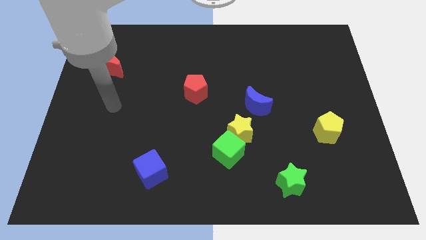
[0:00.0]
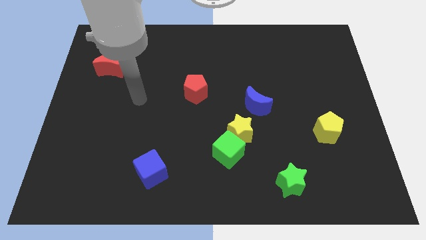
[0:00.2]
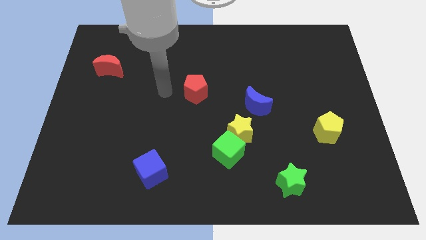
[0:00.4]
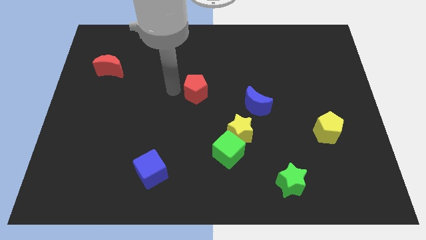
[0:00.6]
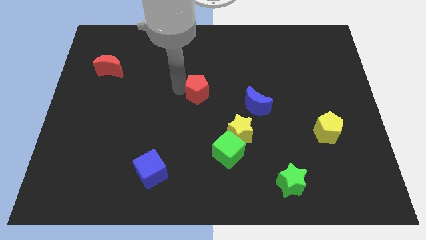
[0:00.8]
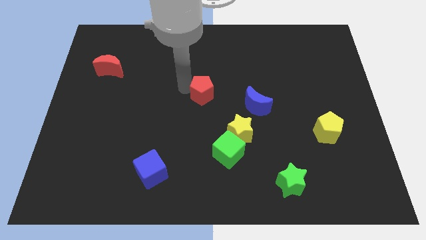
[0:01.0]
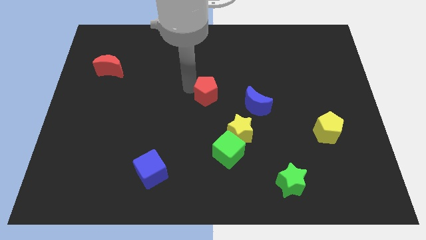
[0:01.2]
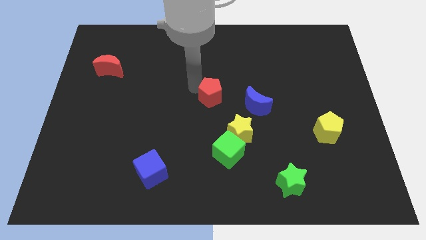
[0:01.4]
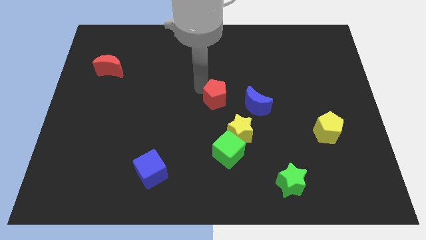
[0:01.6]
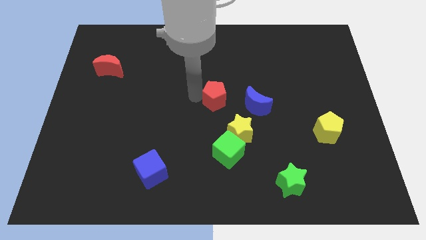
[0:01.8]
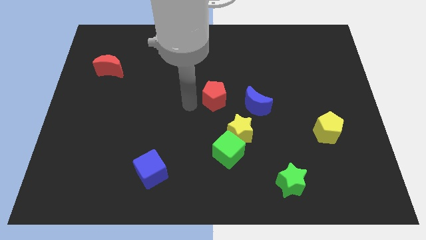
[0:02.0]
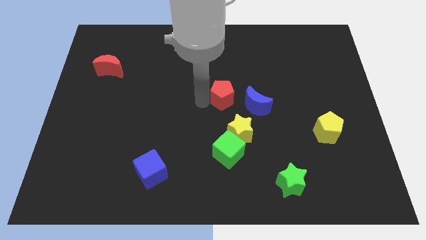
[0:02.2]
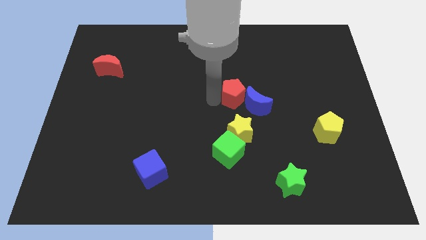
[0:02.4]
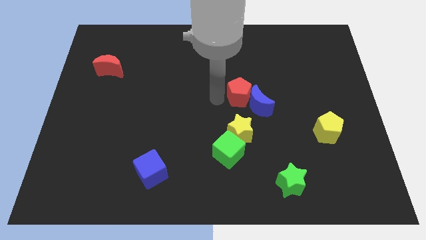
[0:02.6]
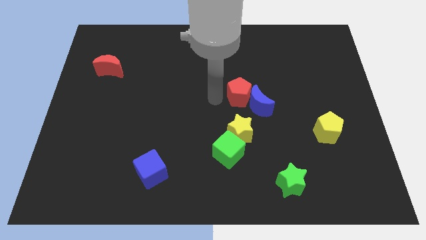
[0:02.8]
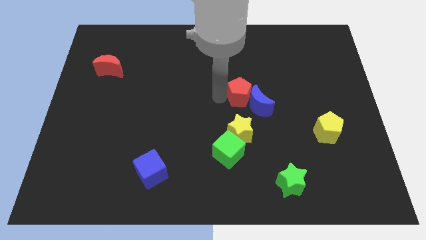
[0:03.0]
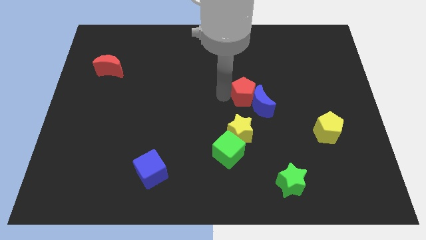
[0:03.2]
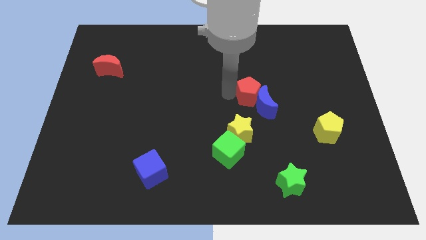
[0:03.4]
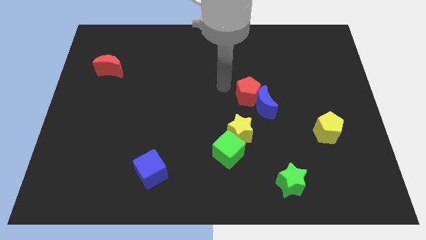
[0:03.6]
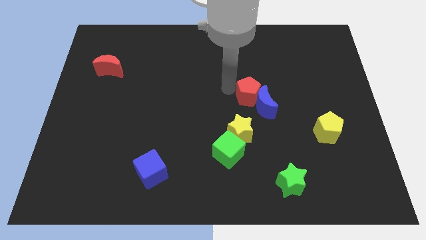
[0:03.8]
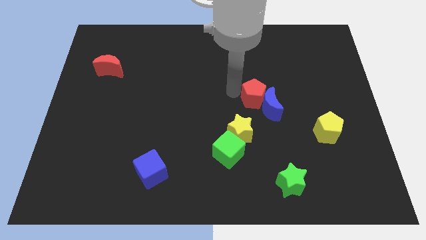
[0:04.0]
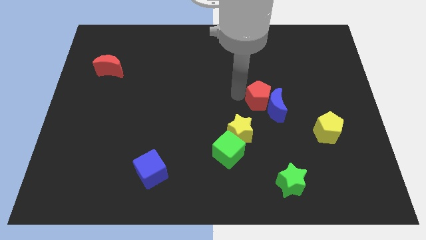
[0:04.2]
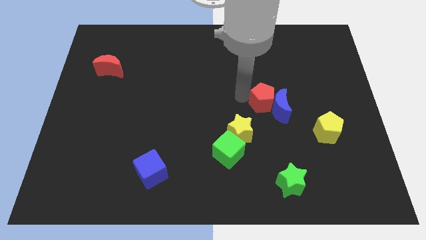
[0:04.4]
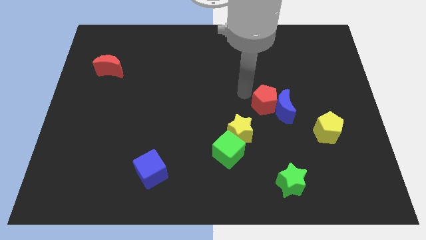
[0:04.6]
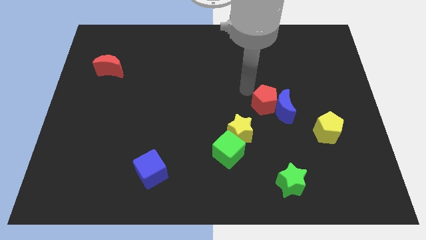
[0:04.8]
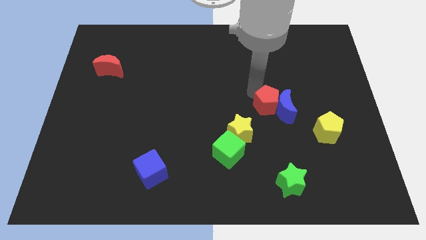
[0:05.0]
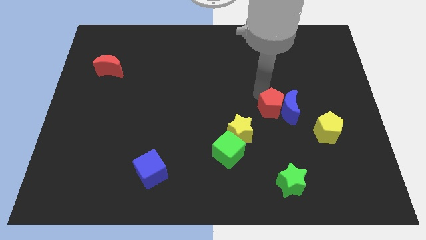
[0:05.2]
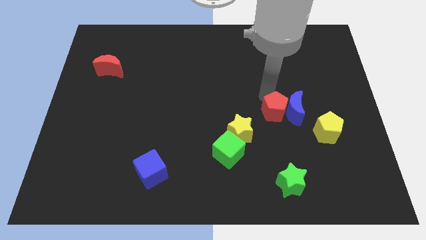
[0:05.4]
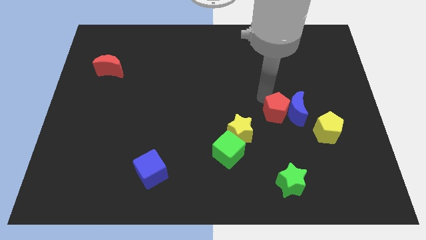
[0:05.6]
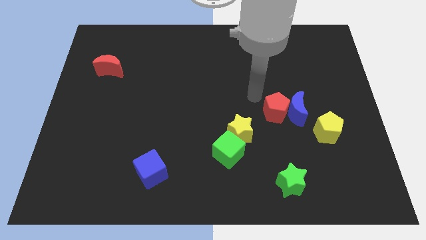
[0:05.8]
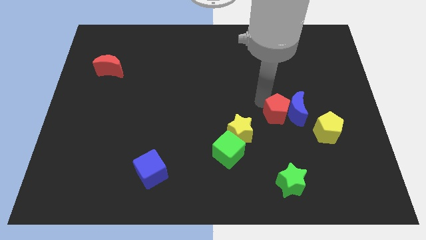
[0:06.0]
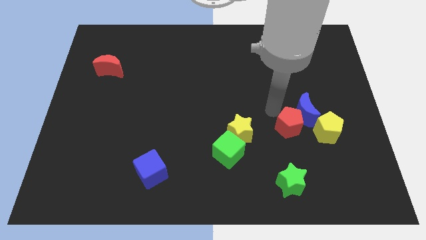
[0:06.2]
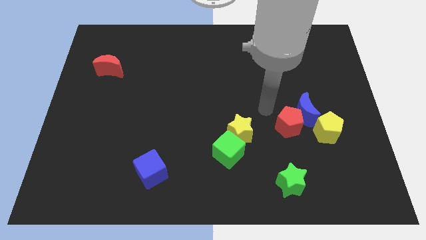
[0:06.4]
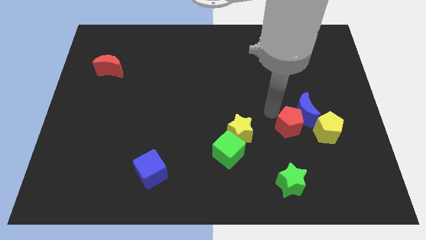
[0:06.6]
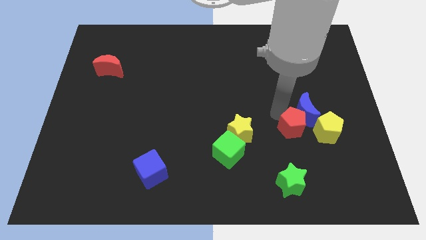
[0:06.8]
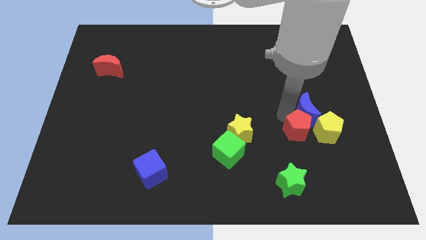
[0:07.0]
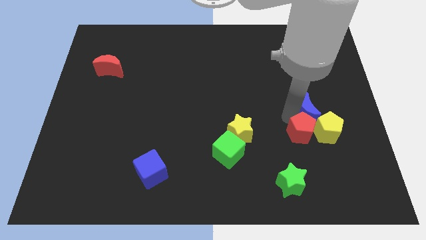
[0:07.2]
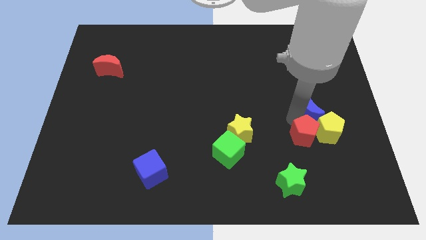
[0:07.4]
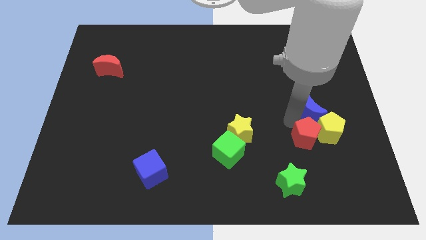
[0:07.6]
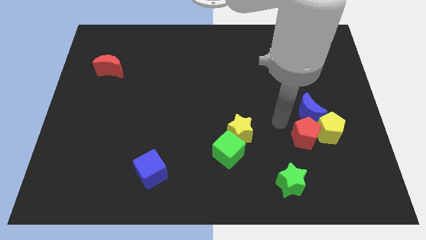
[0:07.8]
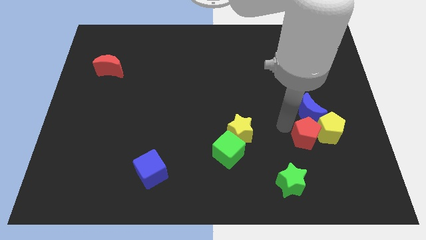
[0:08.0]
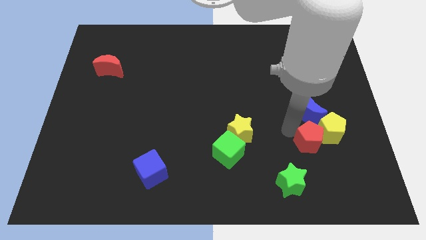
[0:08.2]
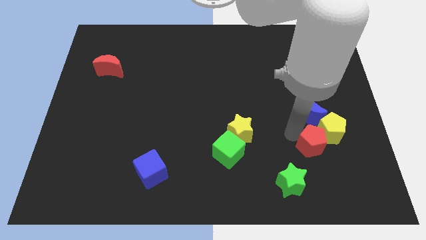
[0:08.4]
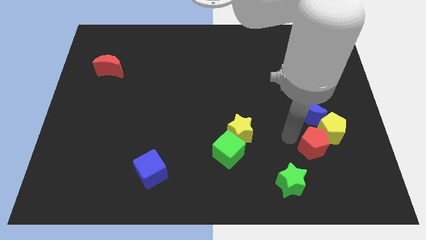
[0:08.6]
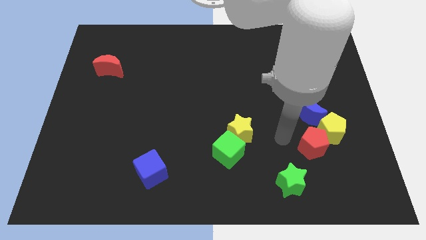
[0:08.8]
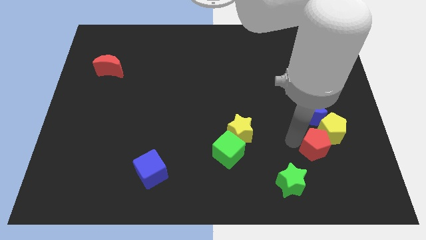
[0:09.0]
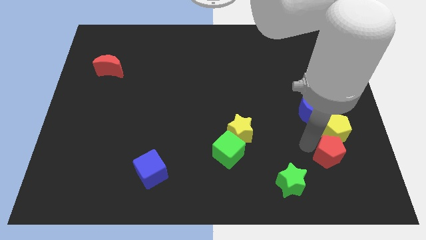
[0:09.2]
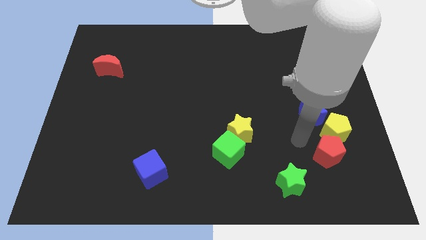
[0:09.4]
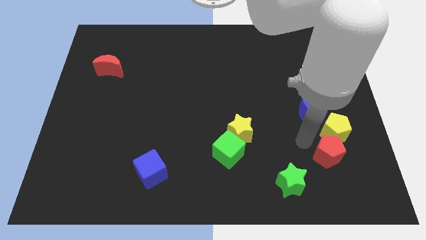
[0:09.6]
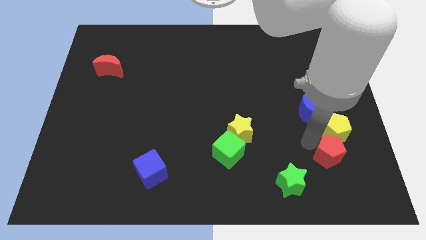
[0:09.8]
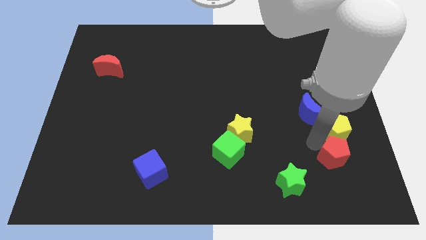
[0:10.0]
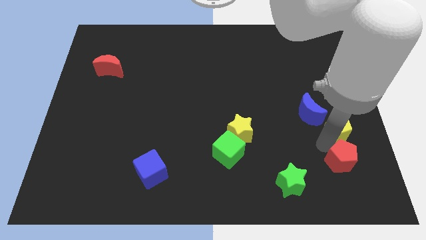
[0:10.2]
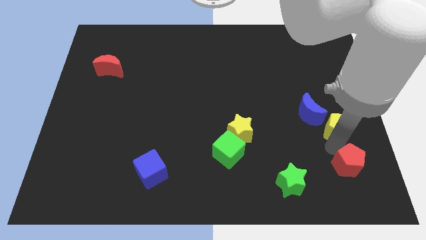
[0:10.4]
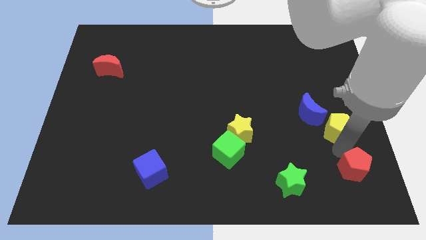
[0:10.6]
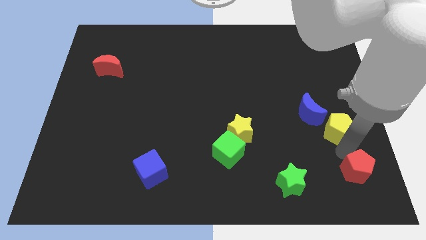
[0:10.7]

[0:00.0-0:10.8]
put the red pentagon to the bottom right of the board
